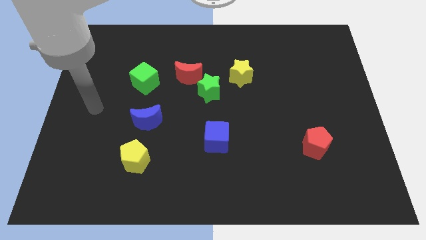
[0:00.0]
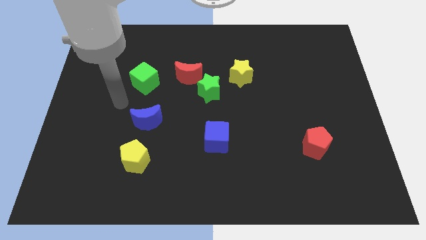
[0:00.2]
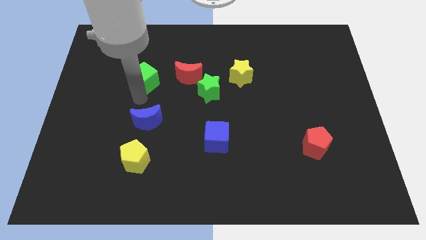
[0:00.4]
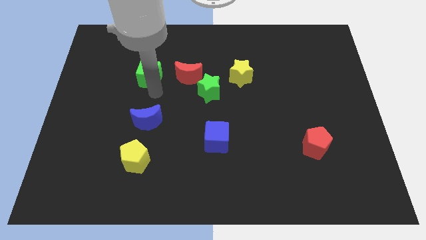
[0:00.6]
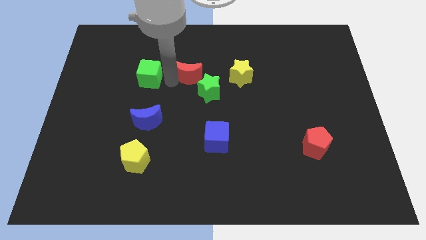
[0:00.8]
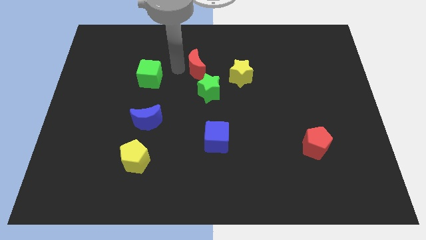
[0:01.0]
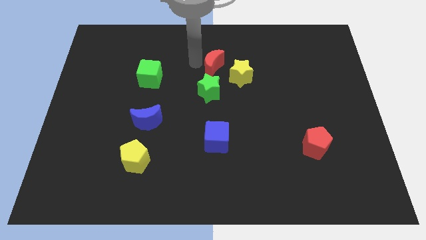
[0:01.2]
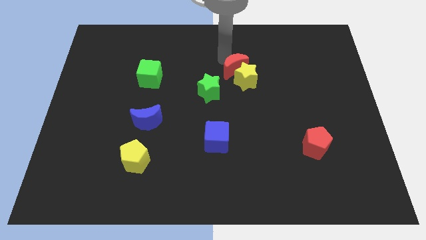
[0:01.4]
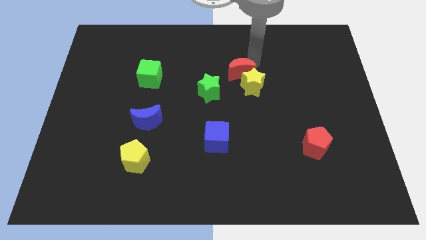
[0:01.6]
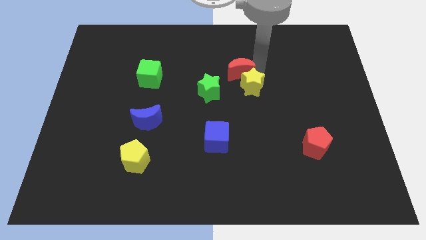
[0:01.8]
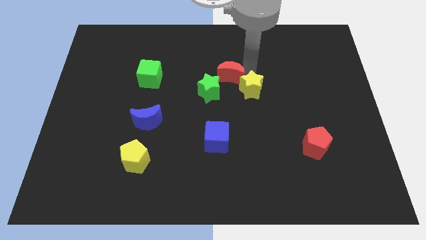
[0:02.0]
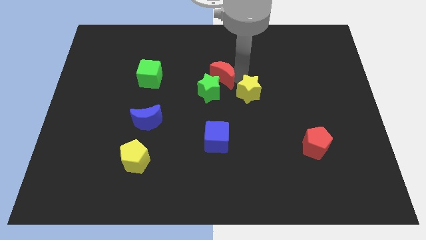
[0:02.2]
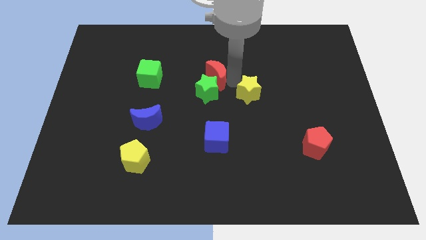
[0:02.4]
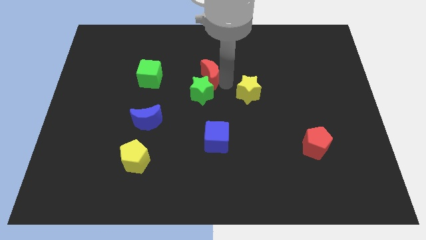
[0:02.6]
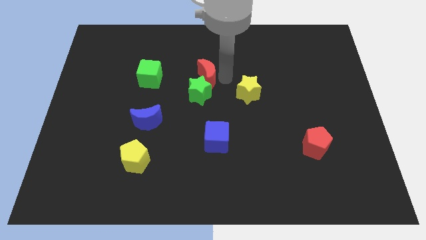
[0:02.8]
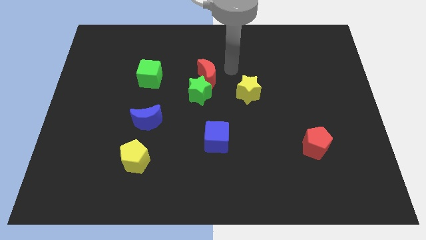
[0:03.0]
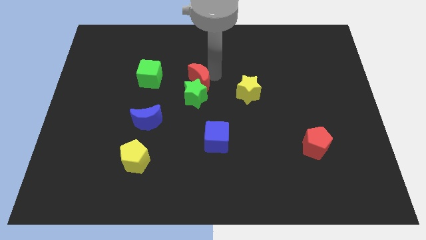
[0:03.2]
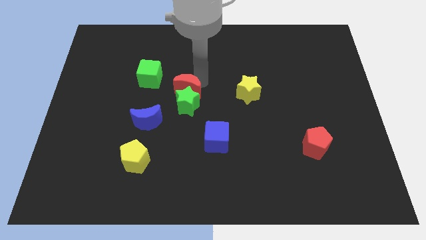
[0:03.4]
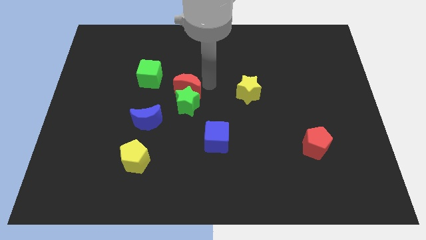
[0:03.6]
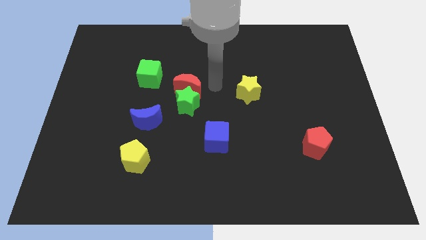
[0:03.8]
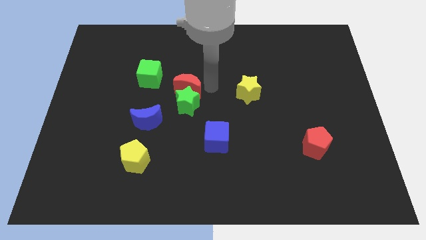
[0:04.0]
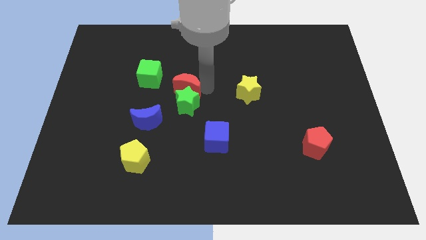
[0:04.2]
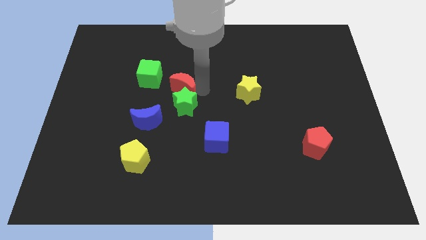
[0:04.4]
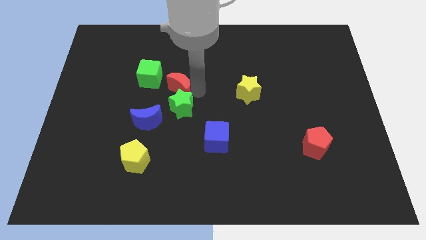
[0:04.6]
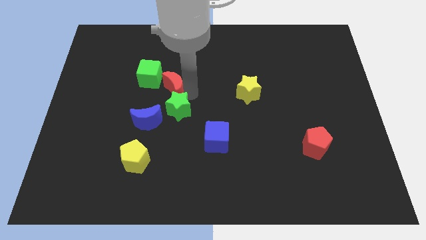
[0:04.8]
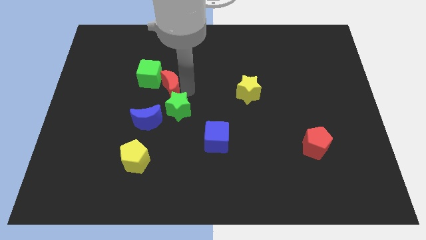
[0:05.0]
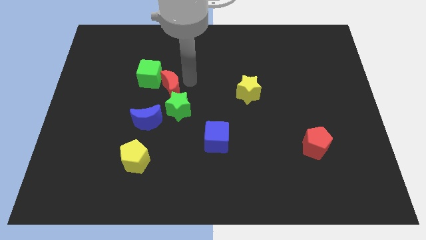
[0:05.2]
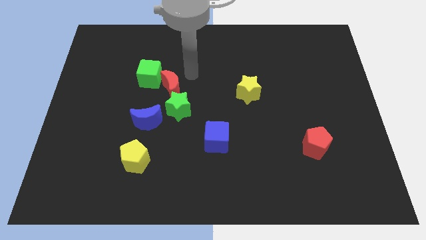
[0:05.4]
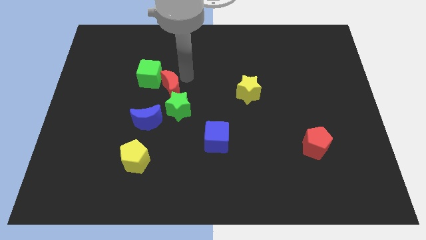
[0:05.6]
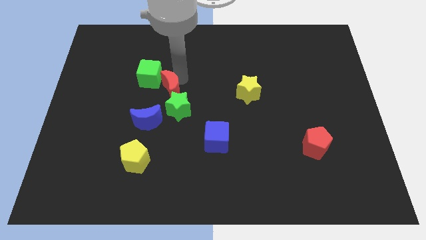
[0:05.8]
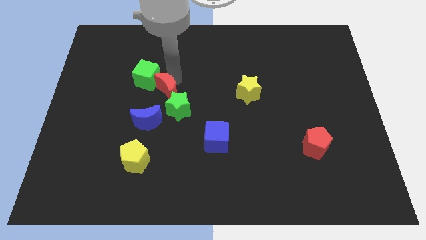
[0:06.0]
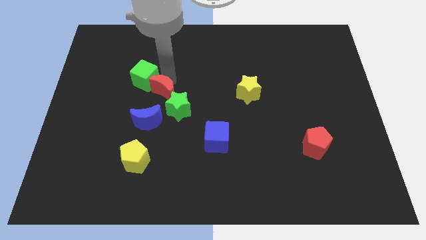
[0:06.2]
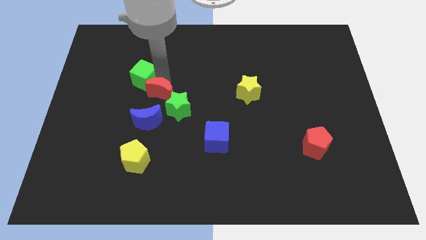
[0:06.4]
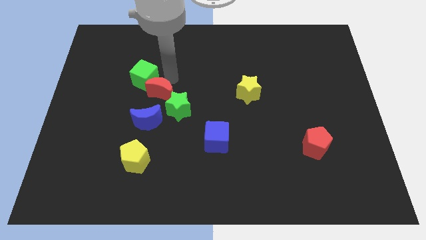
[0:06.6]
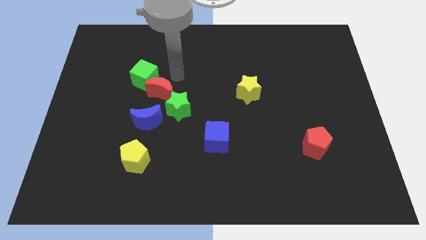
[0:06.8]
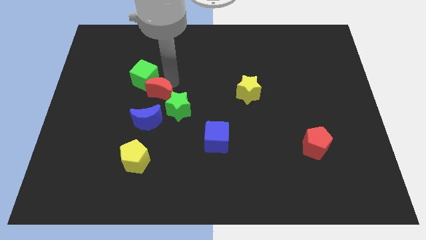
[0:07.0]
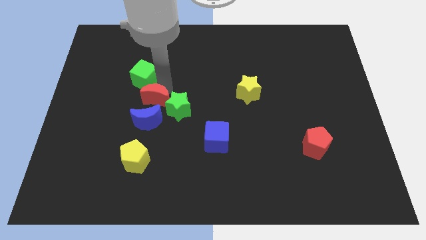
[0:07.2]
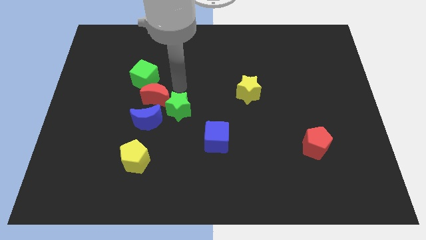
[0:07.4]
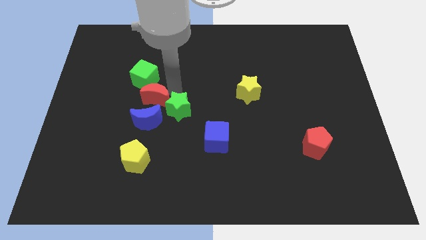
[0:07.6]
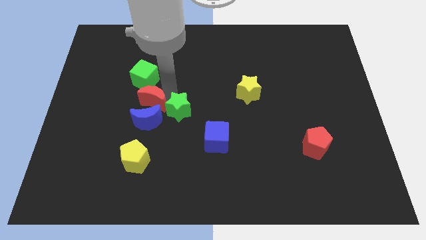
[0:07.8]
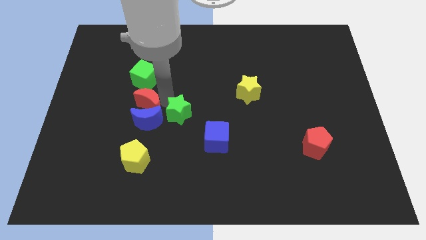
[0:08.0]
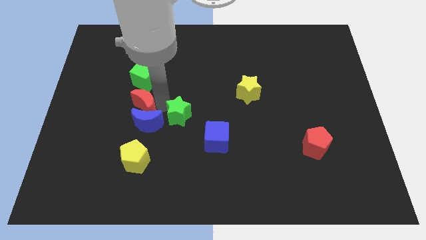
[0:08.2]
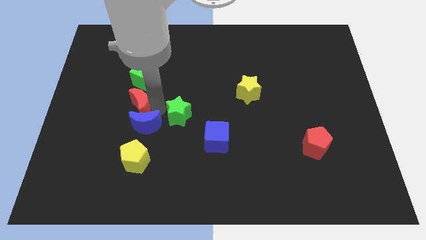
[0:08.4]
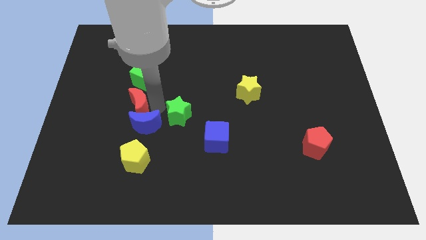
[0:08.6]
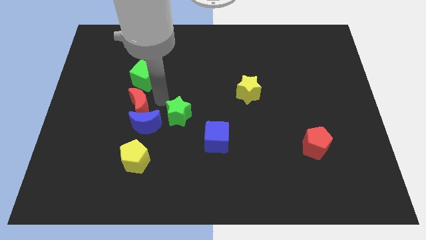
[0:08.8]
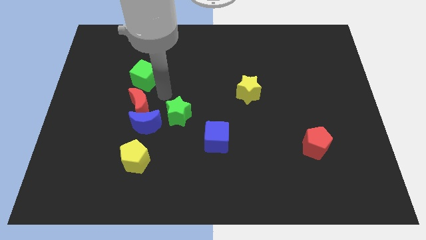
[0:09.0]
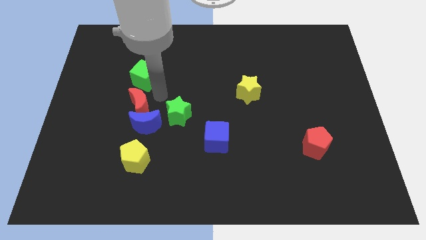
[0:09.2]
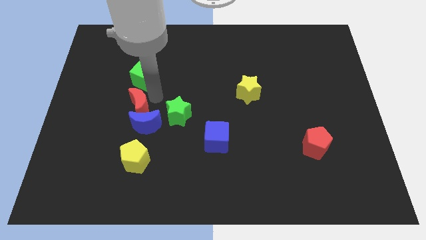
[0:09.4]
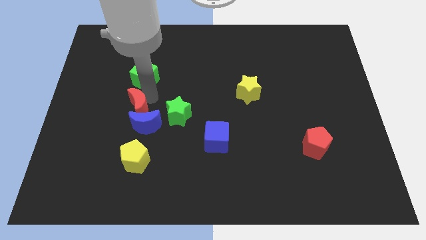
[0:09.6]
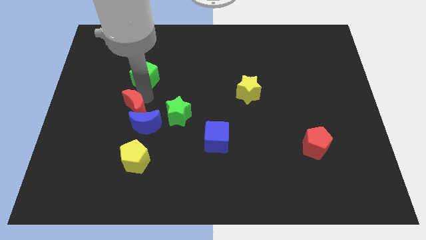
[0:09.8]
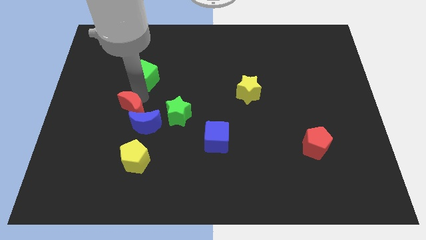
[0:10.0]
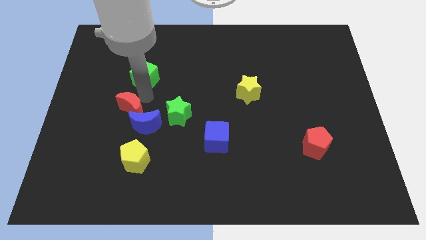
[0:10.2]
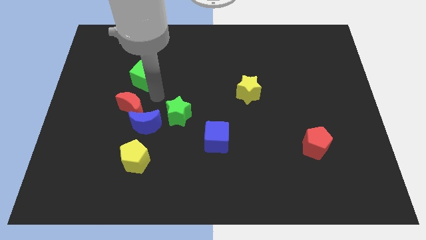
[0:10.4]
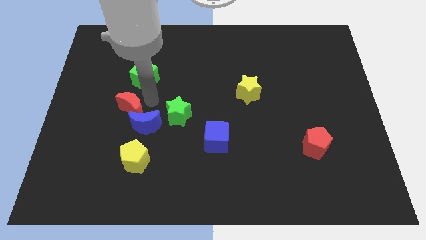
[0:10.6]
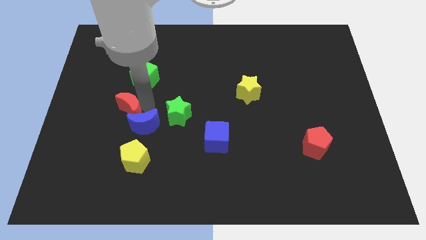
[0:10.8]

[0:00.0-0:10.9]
move the red moon to the left side of the blue moon

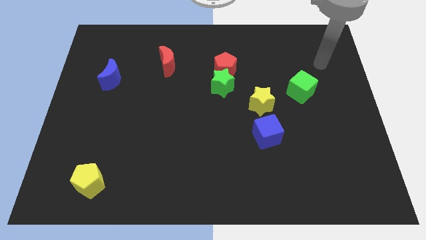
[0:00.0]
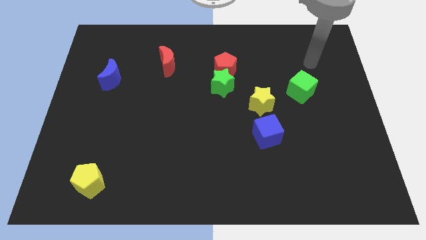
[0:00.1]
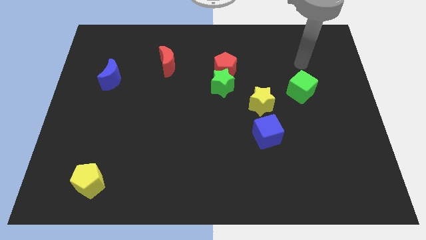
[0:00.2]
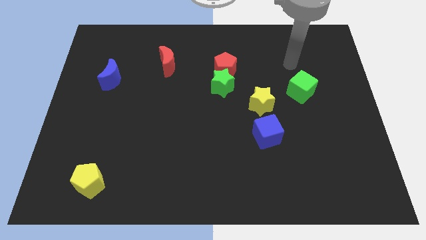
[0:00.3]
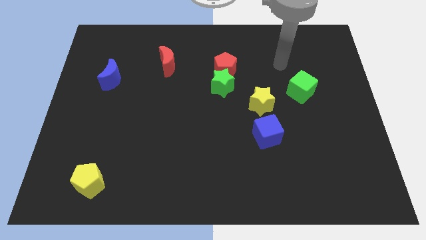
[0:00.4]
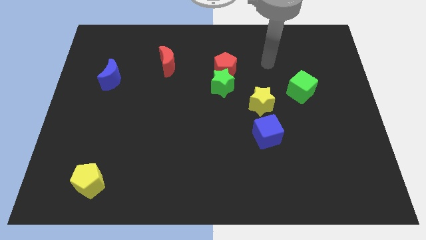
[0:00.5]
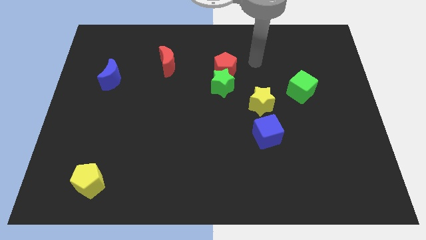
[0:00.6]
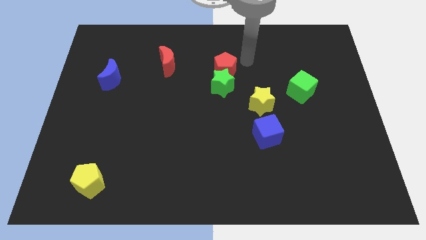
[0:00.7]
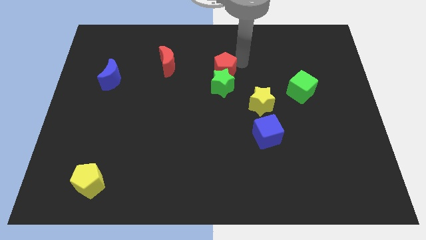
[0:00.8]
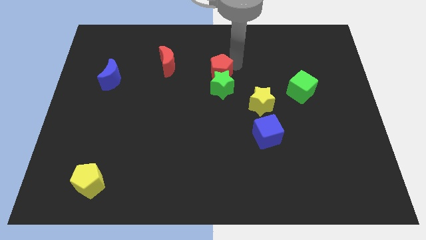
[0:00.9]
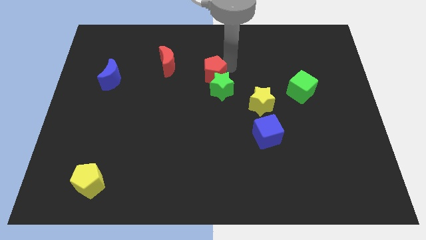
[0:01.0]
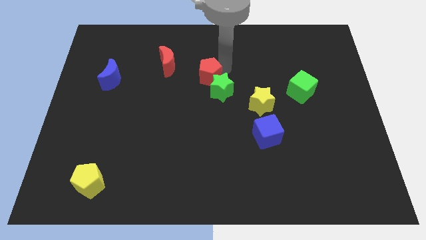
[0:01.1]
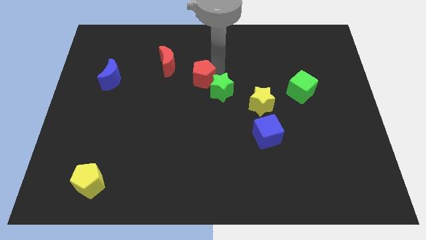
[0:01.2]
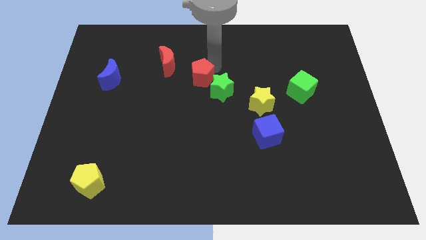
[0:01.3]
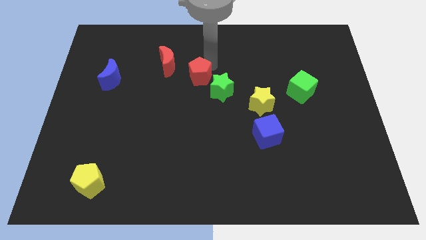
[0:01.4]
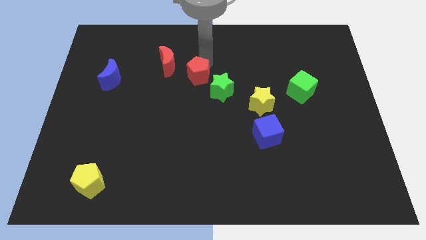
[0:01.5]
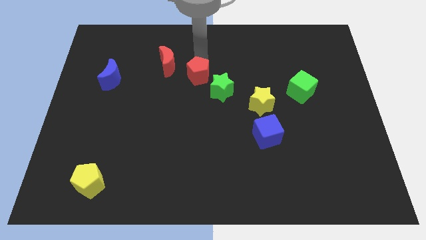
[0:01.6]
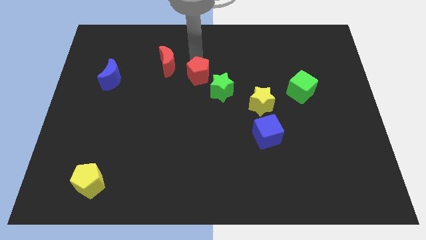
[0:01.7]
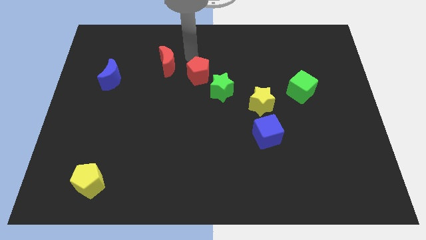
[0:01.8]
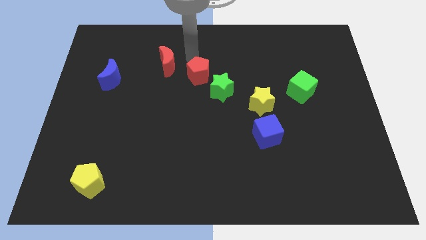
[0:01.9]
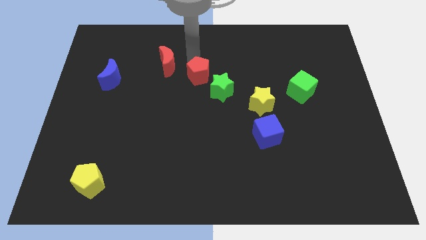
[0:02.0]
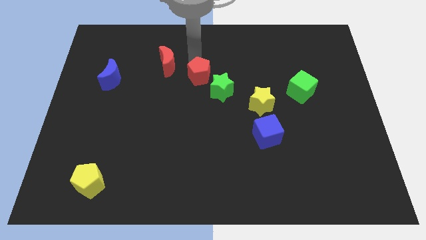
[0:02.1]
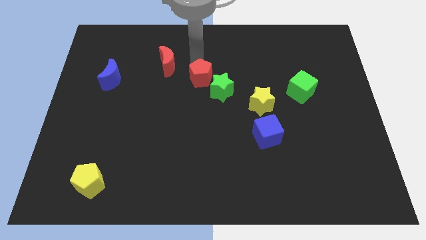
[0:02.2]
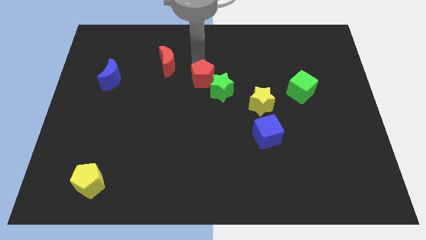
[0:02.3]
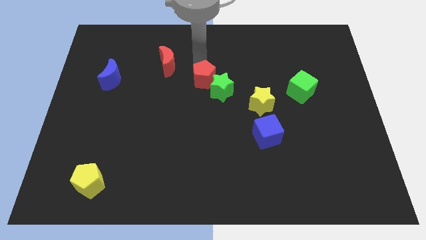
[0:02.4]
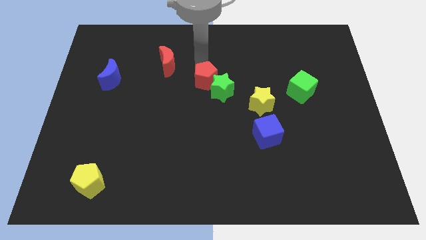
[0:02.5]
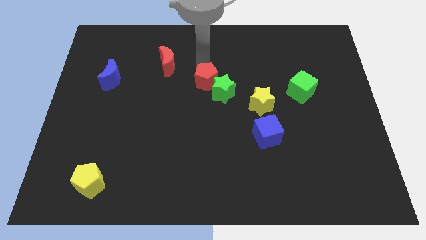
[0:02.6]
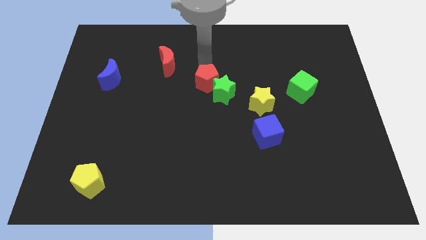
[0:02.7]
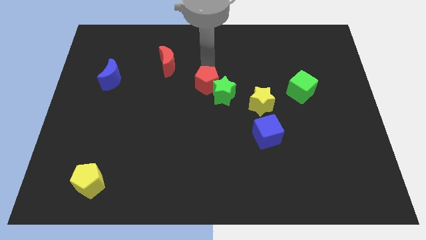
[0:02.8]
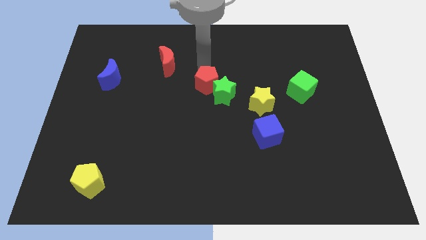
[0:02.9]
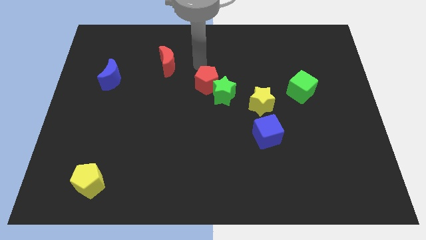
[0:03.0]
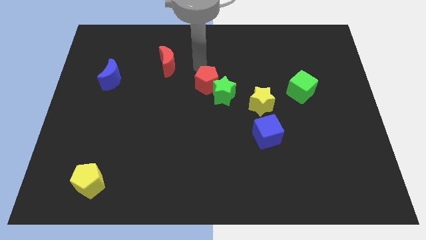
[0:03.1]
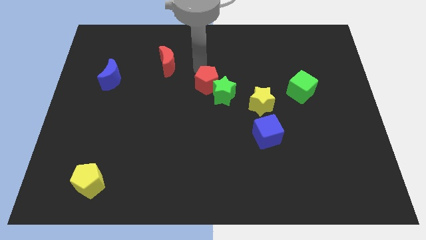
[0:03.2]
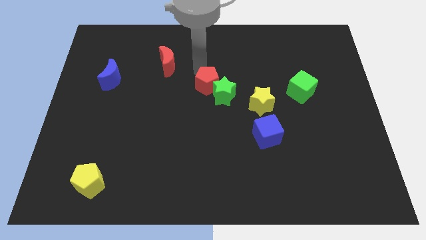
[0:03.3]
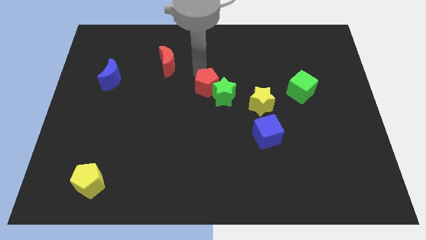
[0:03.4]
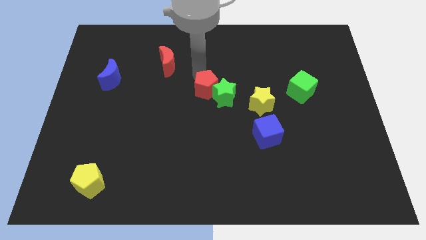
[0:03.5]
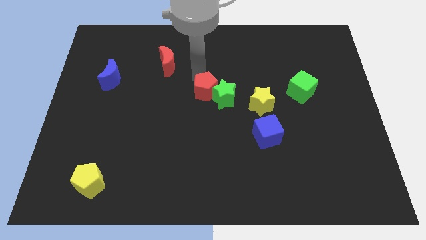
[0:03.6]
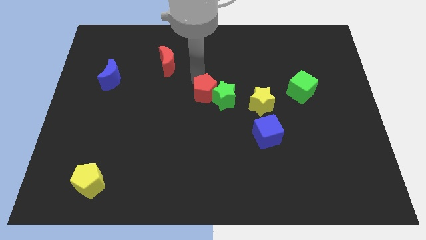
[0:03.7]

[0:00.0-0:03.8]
push the red pentagon left of the yellow star
